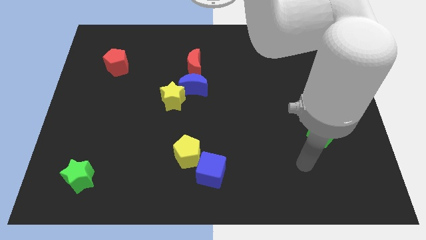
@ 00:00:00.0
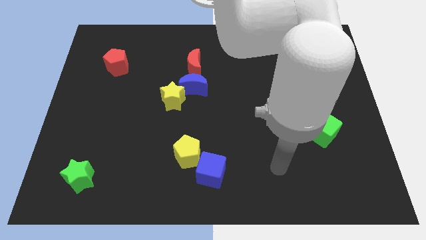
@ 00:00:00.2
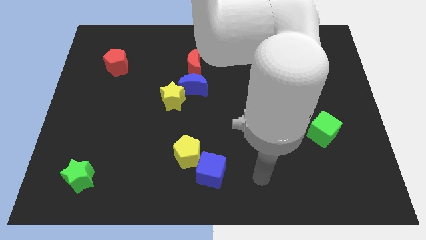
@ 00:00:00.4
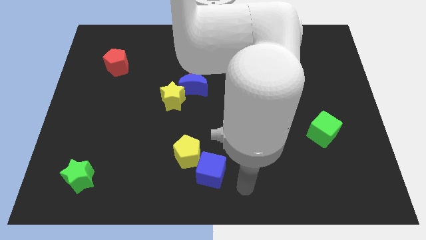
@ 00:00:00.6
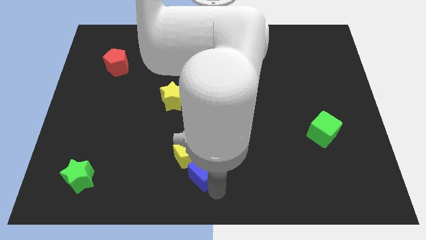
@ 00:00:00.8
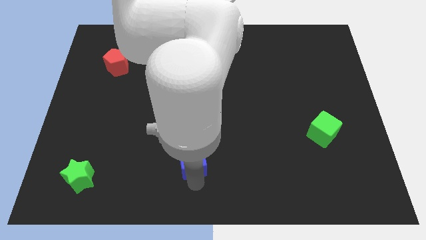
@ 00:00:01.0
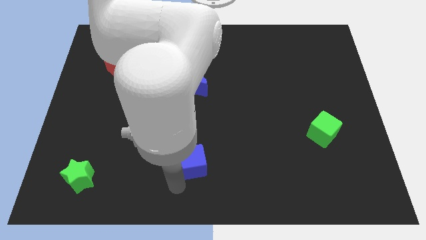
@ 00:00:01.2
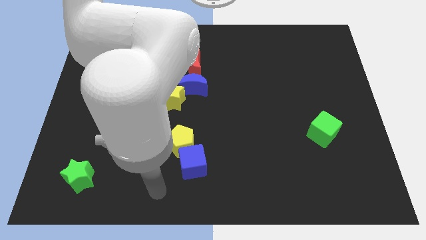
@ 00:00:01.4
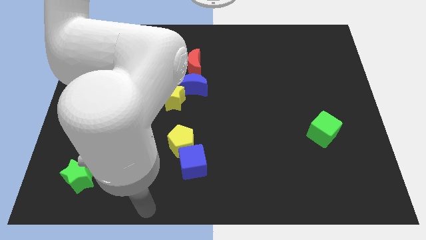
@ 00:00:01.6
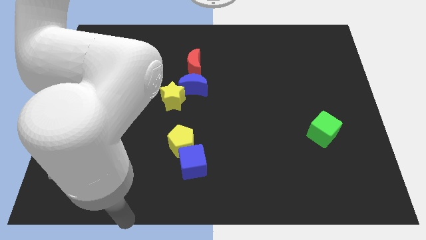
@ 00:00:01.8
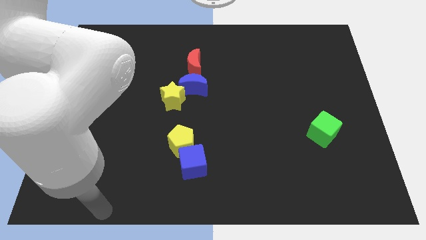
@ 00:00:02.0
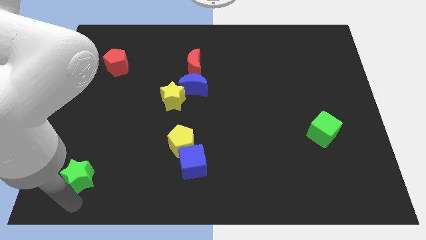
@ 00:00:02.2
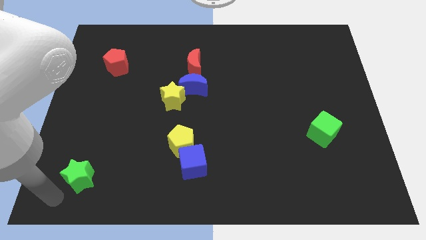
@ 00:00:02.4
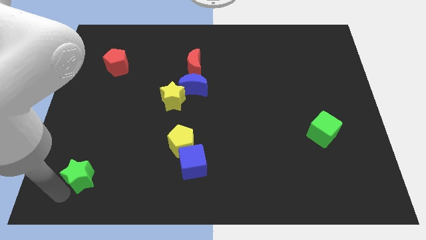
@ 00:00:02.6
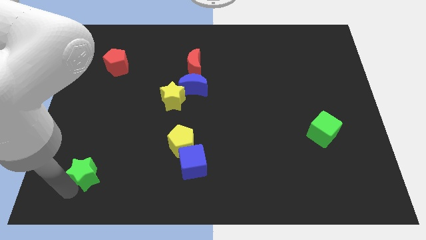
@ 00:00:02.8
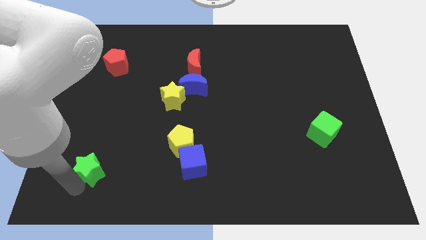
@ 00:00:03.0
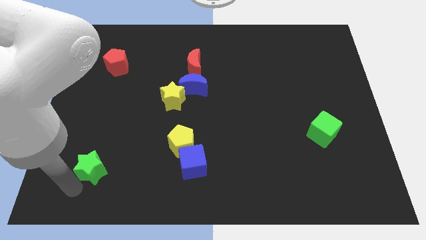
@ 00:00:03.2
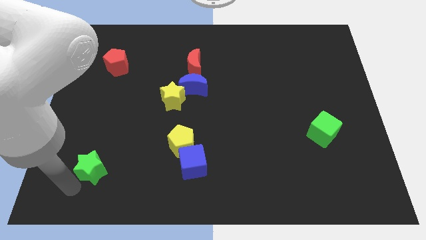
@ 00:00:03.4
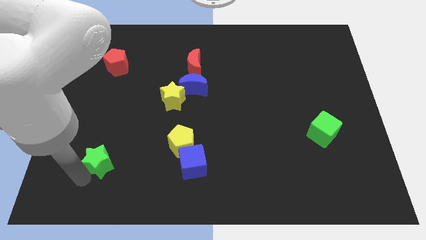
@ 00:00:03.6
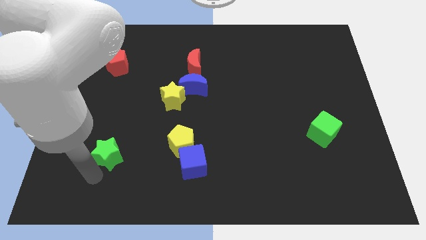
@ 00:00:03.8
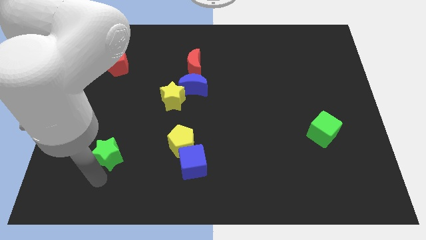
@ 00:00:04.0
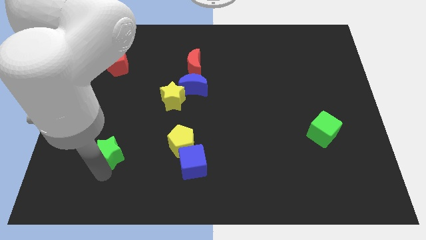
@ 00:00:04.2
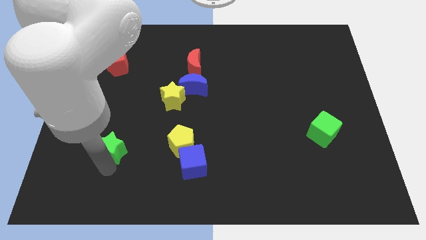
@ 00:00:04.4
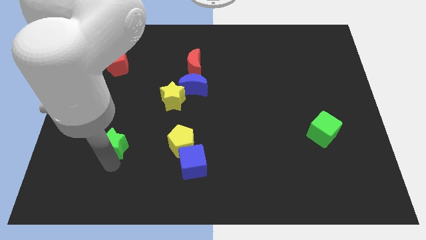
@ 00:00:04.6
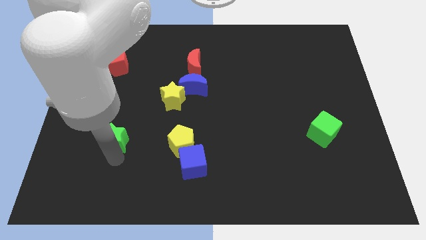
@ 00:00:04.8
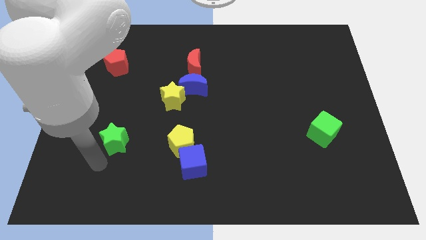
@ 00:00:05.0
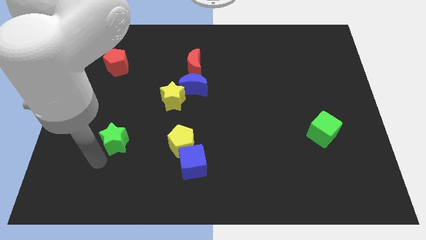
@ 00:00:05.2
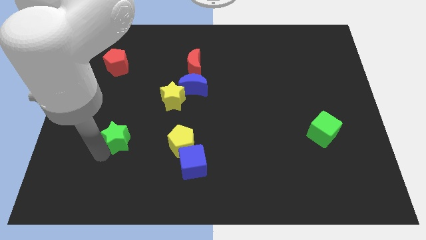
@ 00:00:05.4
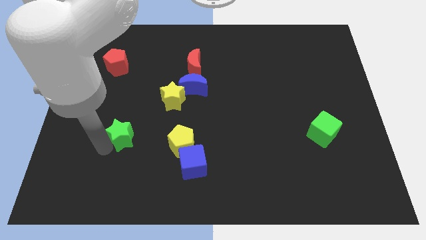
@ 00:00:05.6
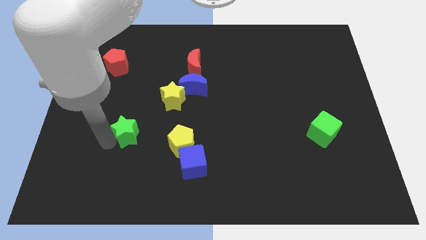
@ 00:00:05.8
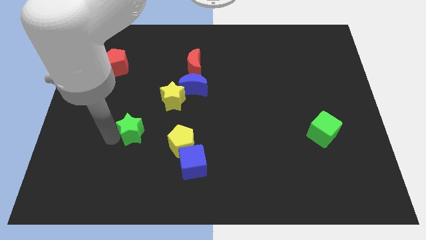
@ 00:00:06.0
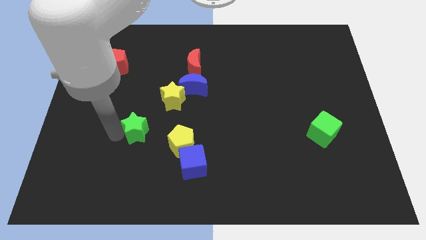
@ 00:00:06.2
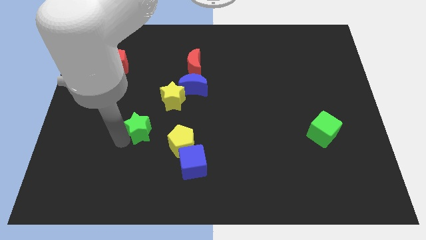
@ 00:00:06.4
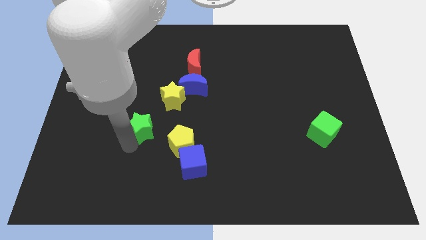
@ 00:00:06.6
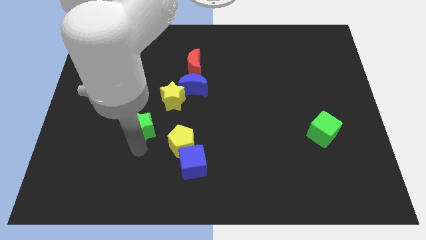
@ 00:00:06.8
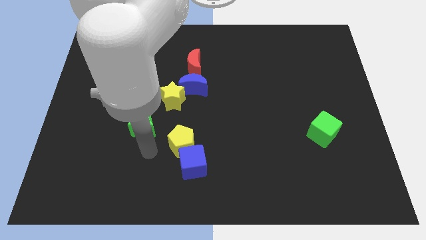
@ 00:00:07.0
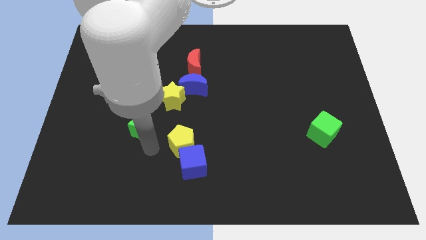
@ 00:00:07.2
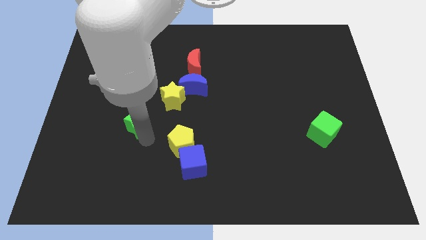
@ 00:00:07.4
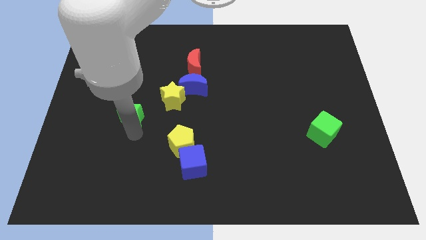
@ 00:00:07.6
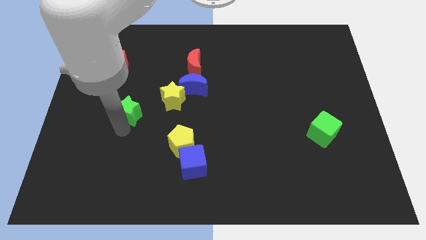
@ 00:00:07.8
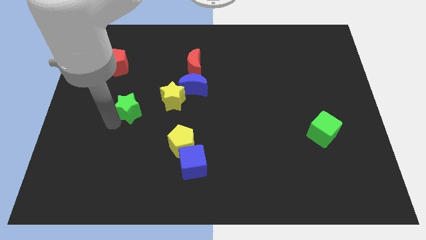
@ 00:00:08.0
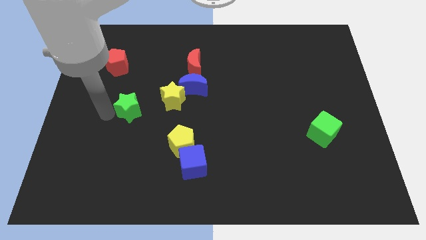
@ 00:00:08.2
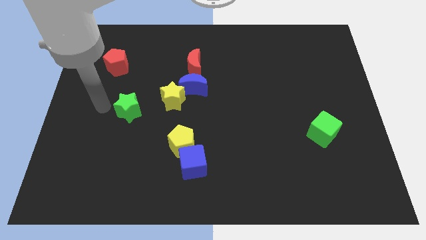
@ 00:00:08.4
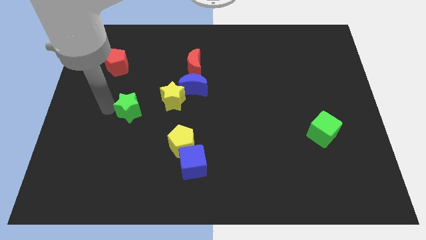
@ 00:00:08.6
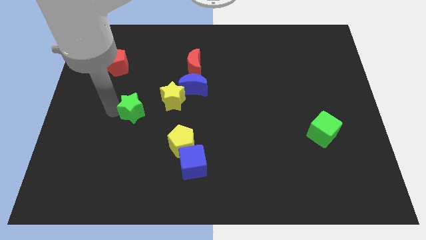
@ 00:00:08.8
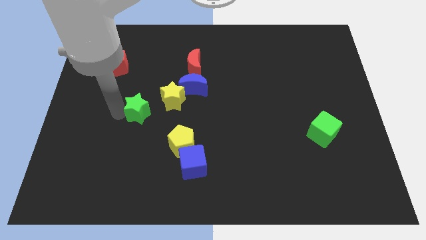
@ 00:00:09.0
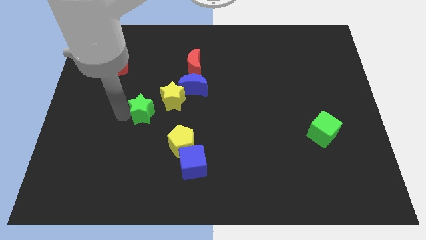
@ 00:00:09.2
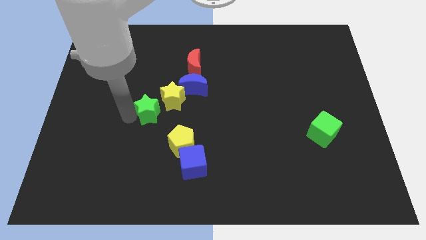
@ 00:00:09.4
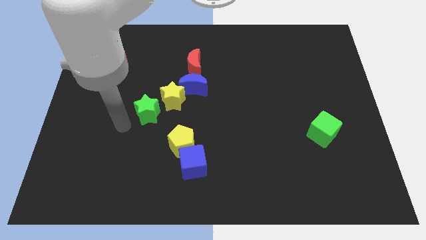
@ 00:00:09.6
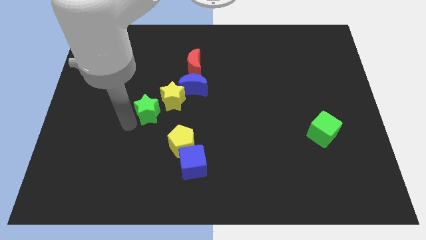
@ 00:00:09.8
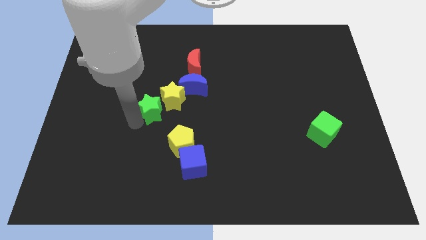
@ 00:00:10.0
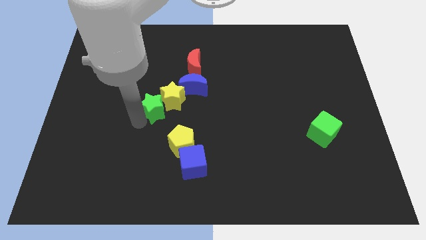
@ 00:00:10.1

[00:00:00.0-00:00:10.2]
put the green star next to the yellow star

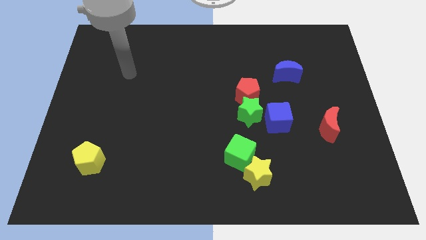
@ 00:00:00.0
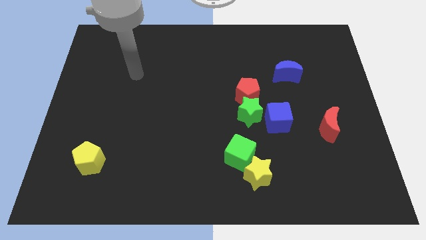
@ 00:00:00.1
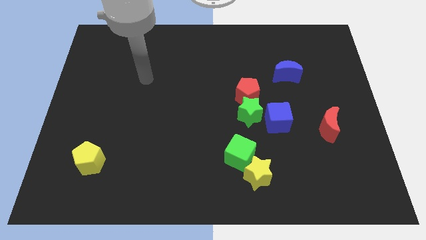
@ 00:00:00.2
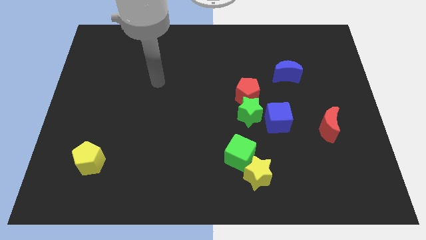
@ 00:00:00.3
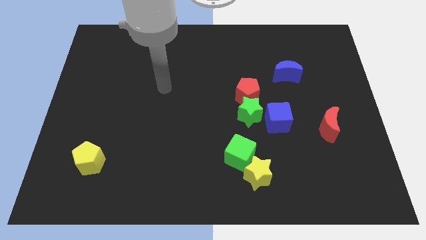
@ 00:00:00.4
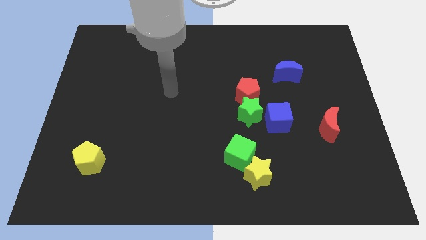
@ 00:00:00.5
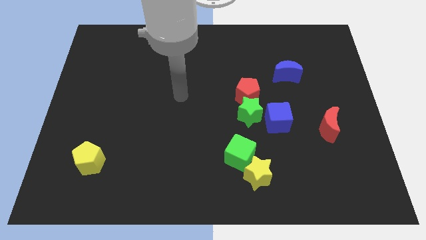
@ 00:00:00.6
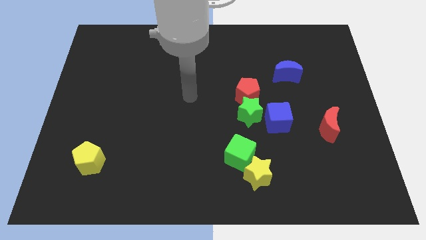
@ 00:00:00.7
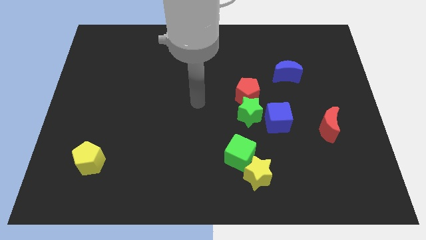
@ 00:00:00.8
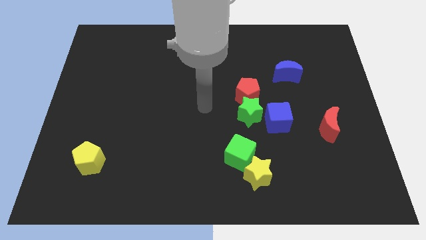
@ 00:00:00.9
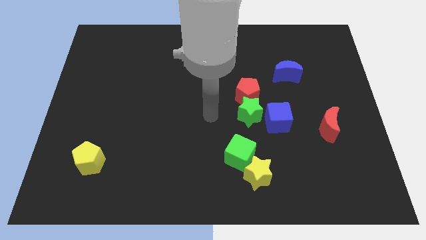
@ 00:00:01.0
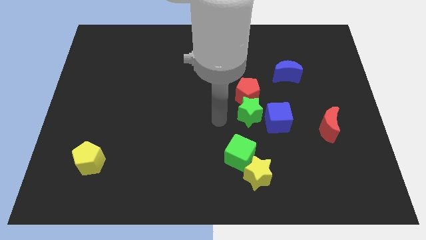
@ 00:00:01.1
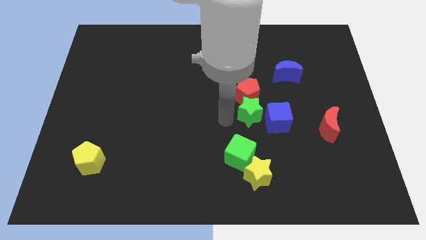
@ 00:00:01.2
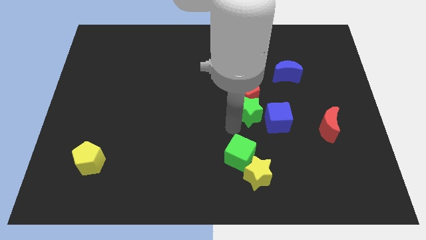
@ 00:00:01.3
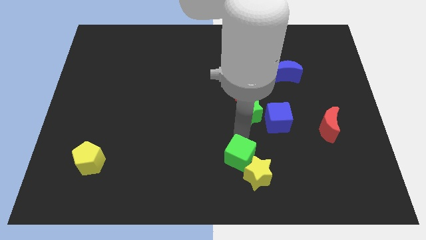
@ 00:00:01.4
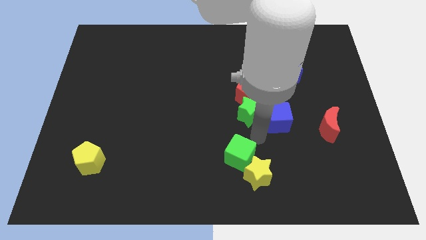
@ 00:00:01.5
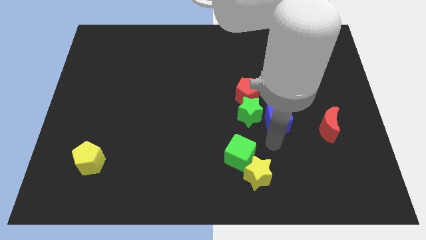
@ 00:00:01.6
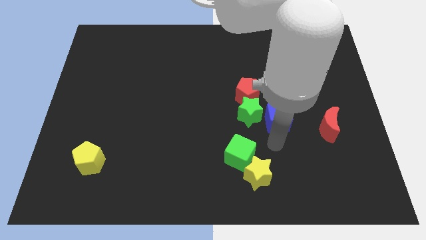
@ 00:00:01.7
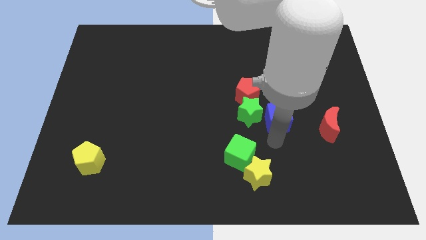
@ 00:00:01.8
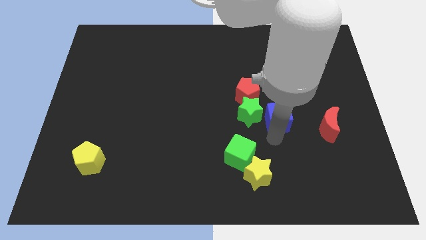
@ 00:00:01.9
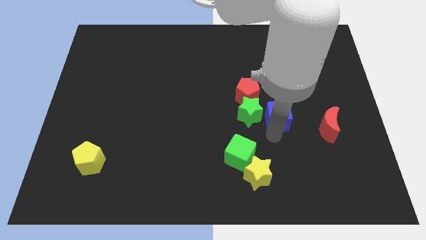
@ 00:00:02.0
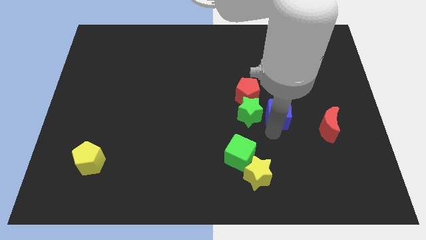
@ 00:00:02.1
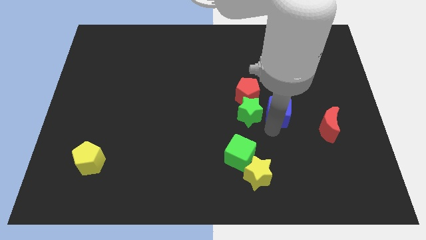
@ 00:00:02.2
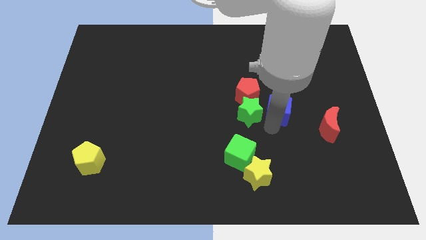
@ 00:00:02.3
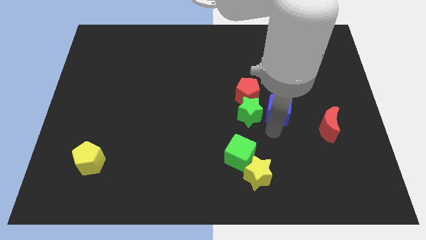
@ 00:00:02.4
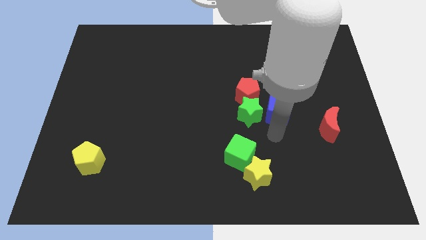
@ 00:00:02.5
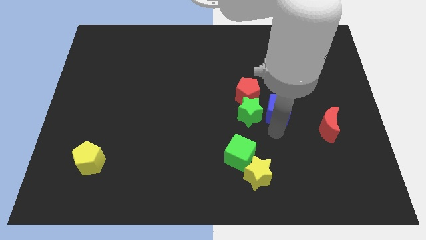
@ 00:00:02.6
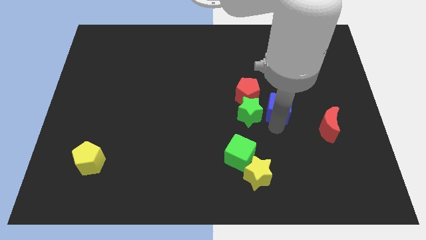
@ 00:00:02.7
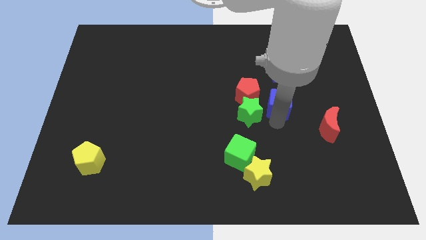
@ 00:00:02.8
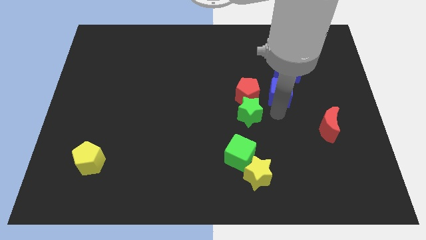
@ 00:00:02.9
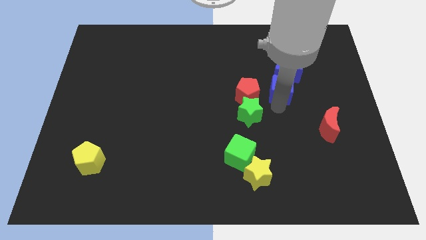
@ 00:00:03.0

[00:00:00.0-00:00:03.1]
move the blue cube towards the blue moon
